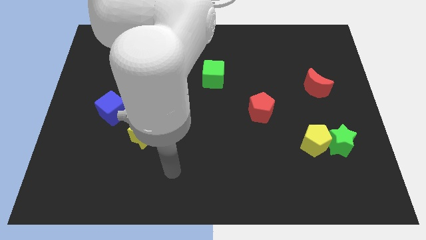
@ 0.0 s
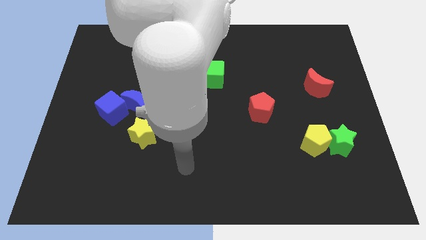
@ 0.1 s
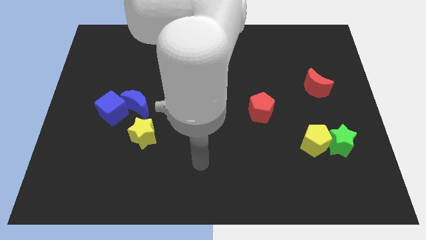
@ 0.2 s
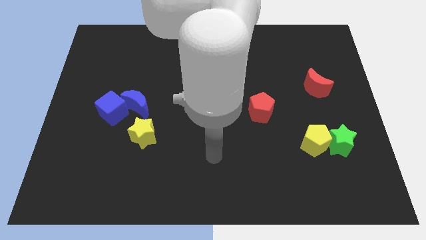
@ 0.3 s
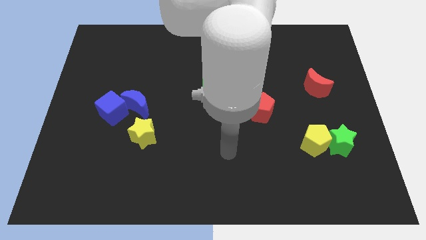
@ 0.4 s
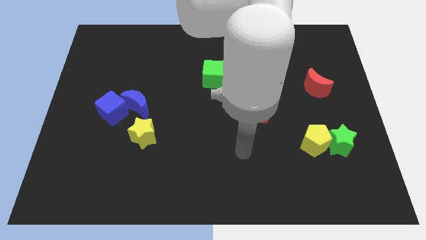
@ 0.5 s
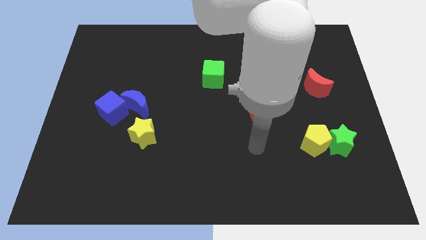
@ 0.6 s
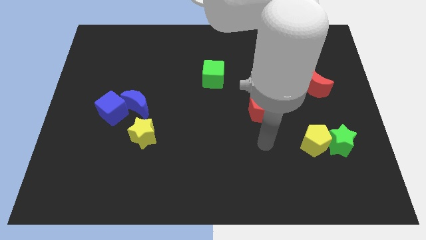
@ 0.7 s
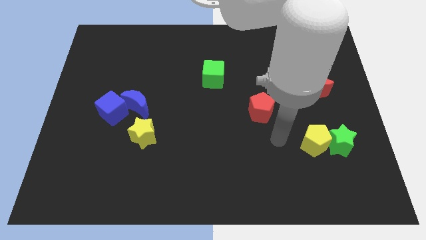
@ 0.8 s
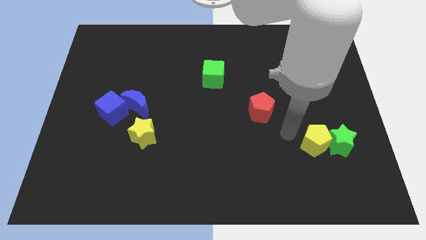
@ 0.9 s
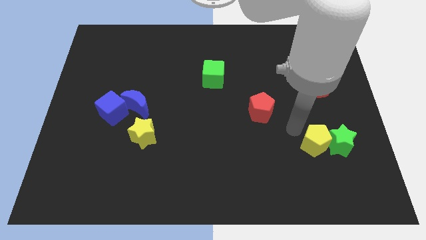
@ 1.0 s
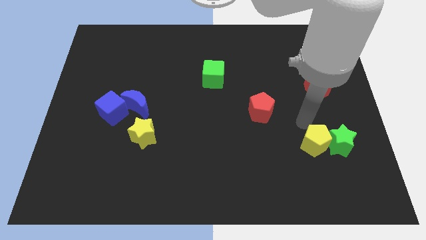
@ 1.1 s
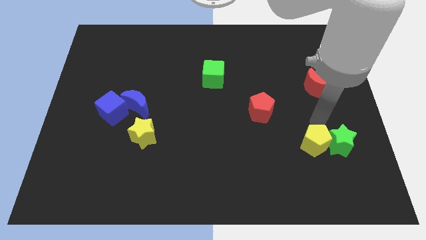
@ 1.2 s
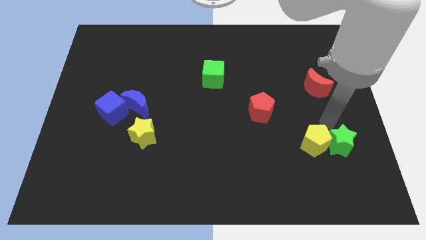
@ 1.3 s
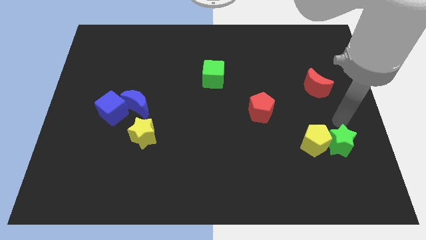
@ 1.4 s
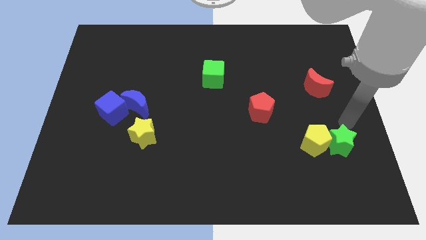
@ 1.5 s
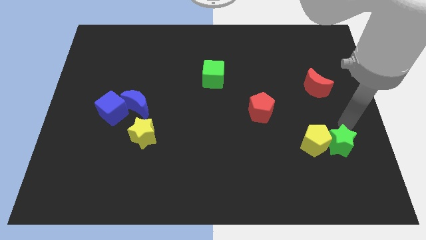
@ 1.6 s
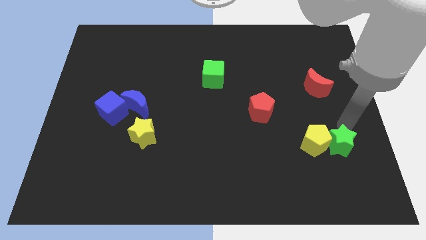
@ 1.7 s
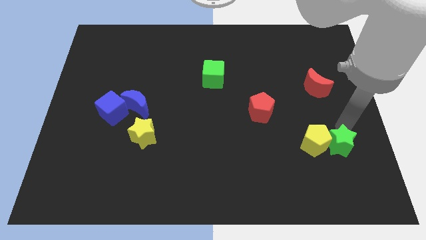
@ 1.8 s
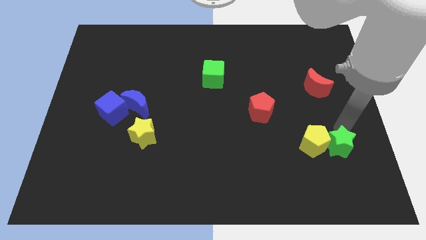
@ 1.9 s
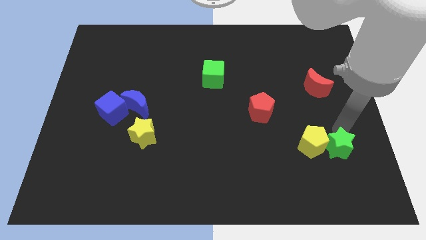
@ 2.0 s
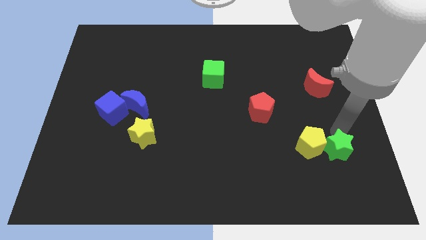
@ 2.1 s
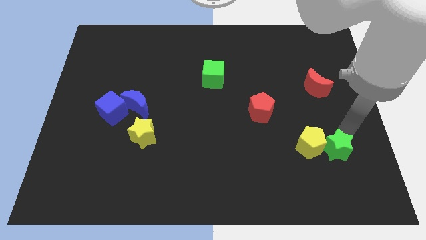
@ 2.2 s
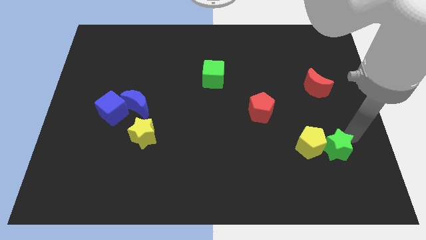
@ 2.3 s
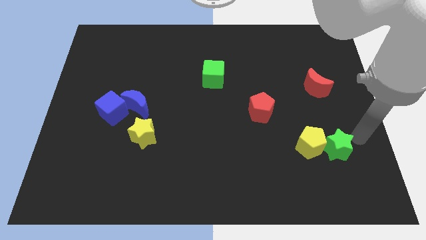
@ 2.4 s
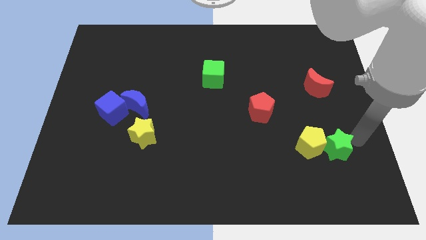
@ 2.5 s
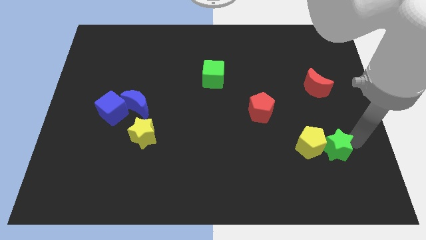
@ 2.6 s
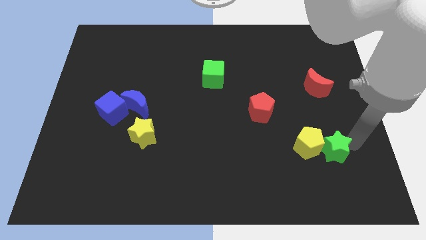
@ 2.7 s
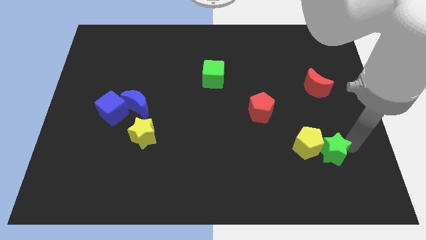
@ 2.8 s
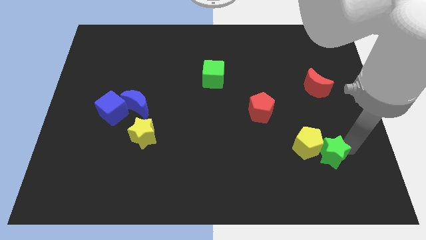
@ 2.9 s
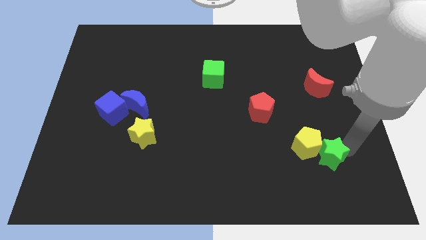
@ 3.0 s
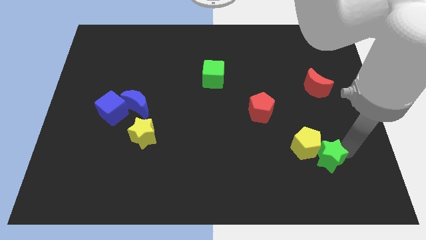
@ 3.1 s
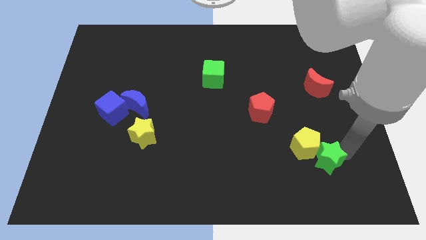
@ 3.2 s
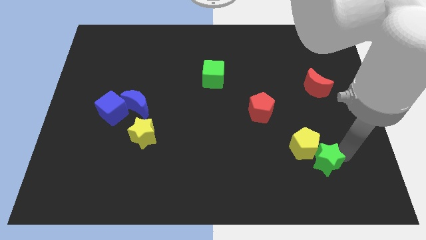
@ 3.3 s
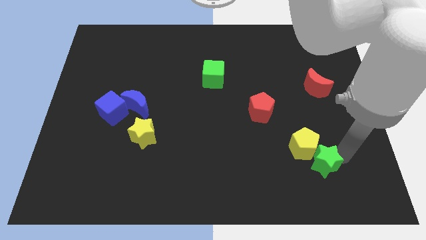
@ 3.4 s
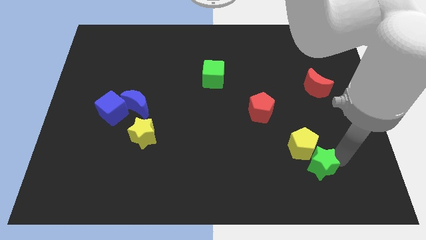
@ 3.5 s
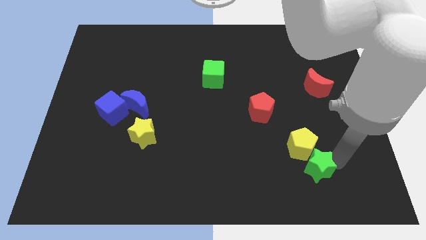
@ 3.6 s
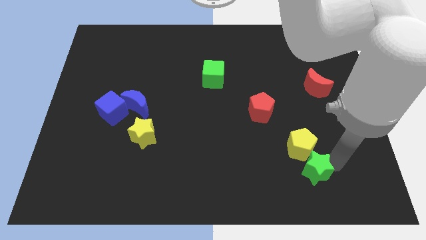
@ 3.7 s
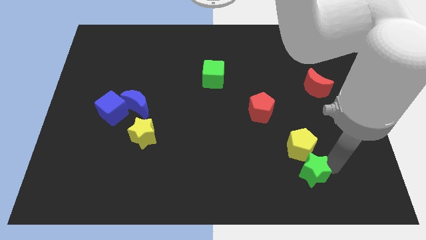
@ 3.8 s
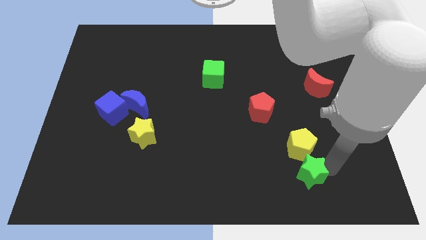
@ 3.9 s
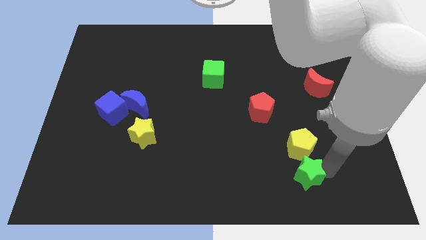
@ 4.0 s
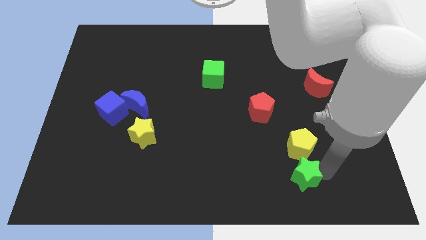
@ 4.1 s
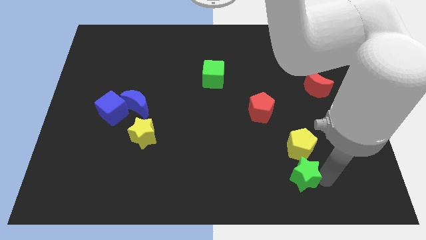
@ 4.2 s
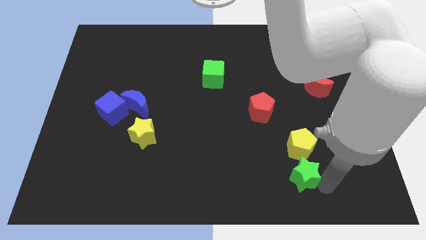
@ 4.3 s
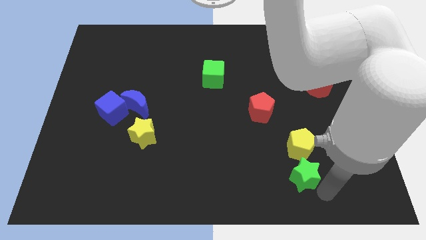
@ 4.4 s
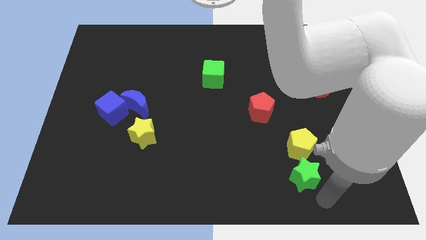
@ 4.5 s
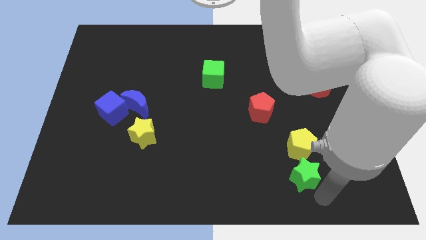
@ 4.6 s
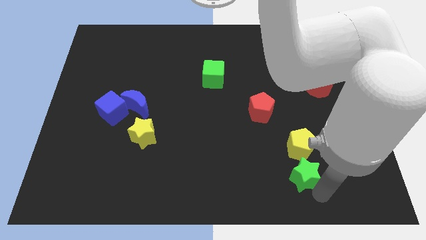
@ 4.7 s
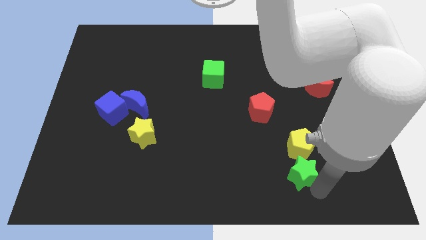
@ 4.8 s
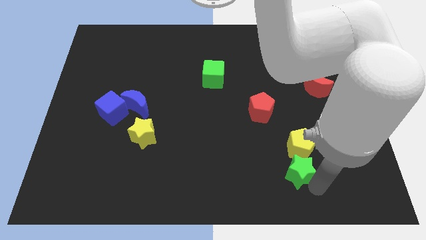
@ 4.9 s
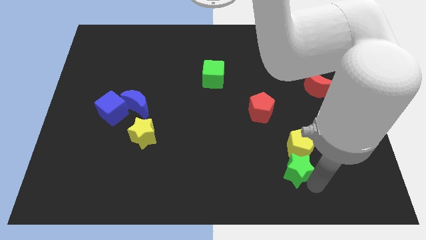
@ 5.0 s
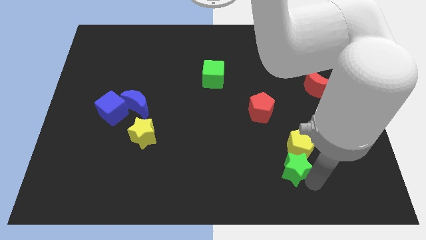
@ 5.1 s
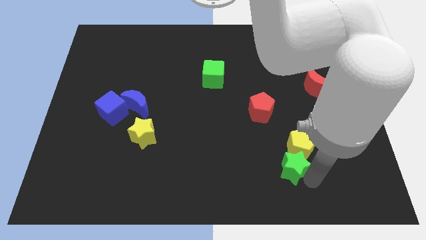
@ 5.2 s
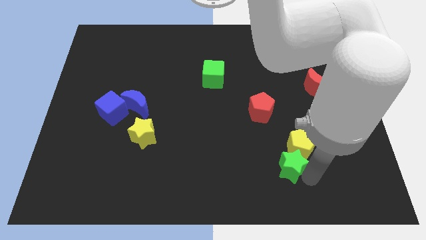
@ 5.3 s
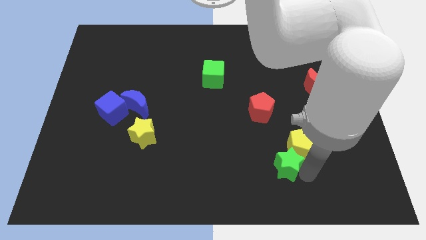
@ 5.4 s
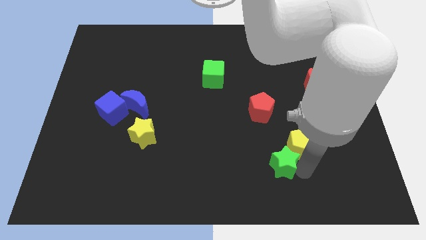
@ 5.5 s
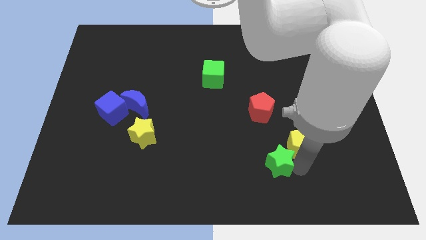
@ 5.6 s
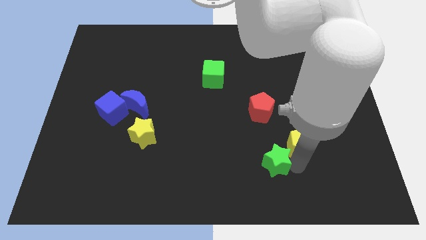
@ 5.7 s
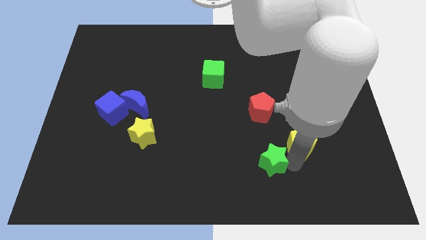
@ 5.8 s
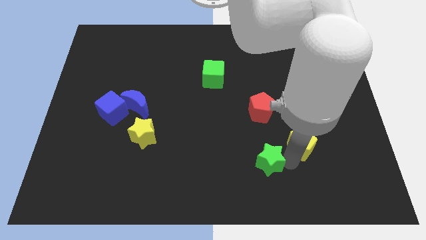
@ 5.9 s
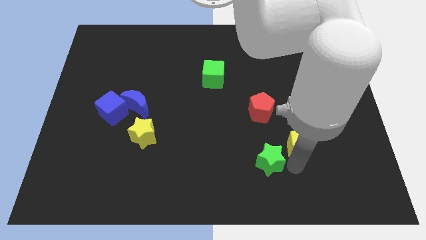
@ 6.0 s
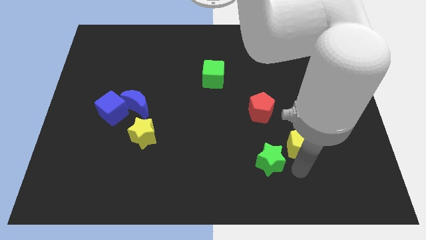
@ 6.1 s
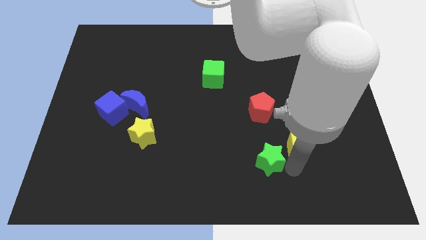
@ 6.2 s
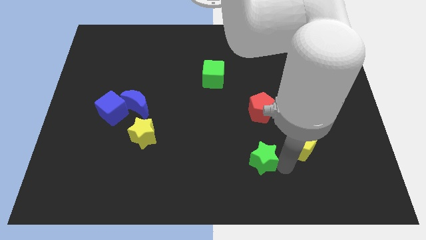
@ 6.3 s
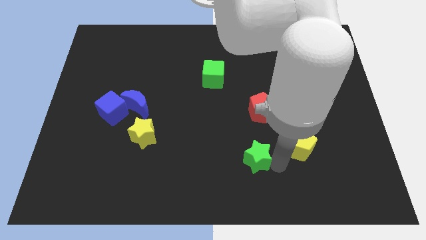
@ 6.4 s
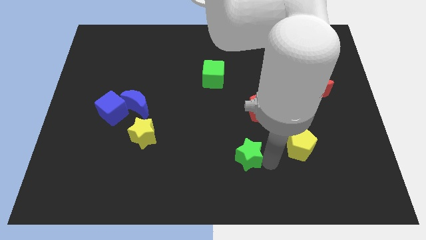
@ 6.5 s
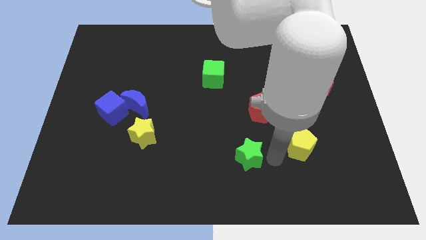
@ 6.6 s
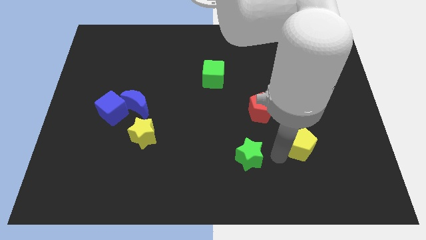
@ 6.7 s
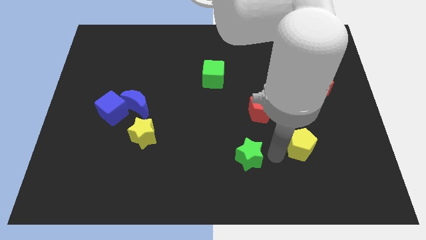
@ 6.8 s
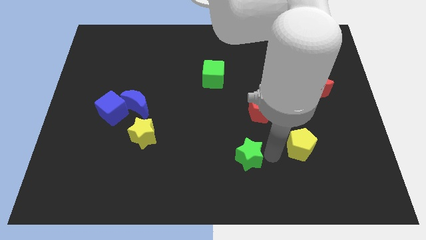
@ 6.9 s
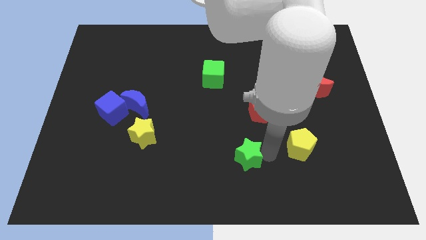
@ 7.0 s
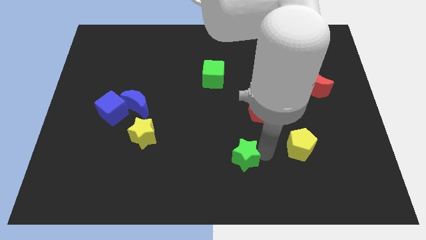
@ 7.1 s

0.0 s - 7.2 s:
push the green star left

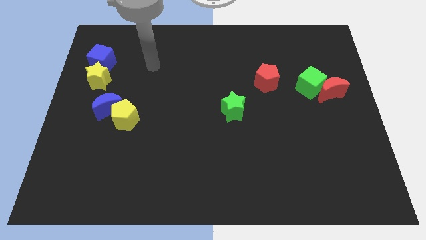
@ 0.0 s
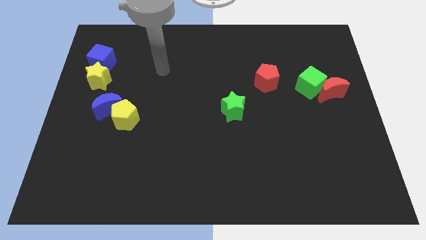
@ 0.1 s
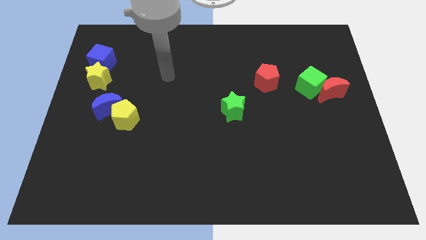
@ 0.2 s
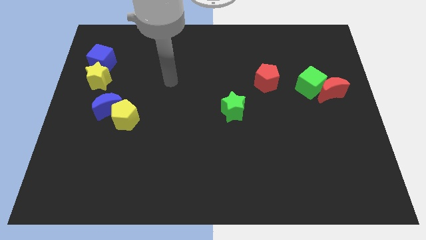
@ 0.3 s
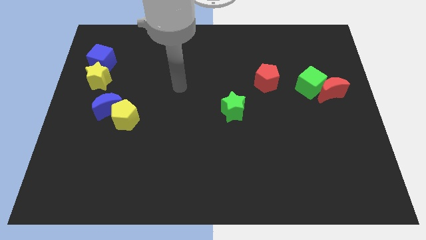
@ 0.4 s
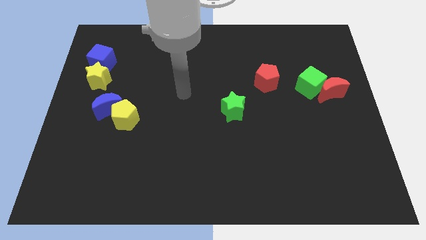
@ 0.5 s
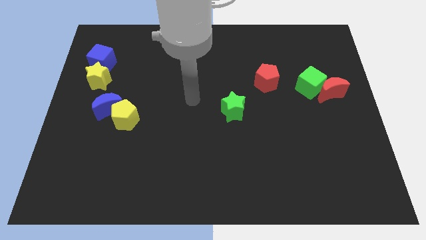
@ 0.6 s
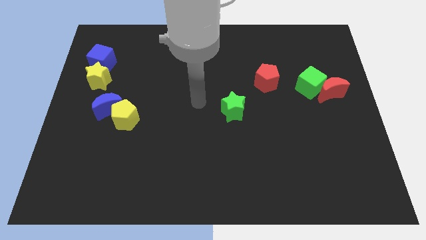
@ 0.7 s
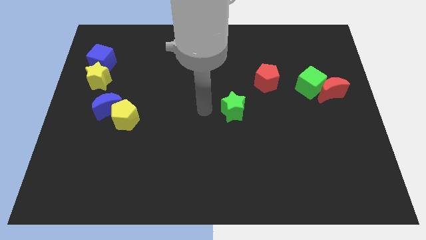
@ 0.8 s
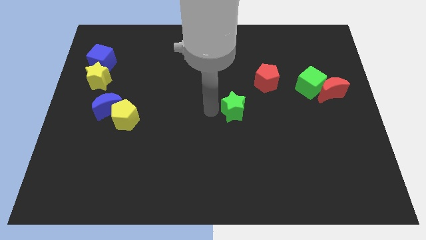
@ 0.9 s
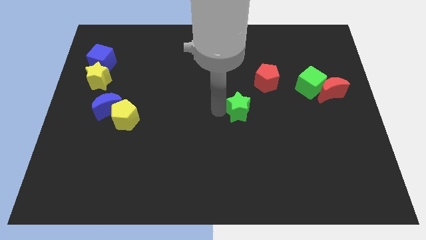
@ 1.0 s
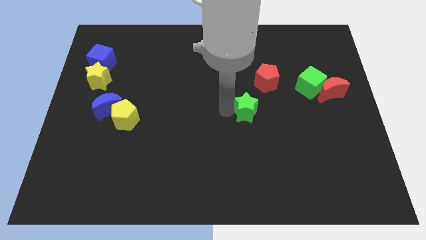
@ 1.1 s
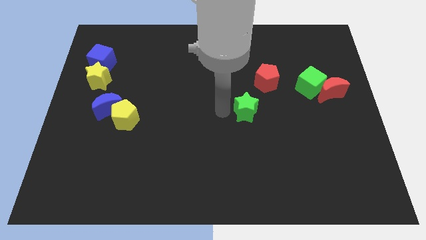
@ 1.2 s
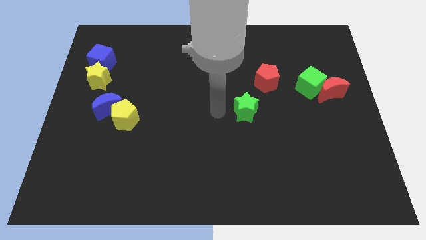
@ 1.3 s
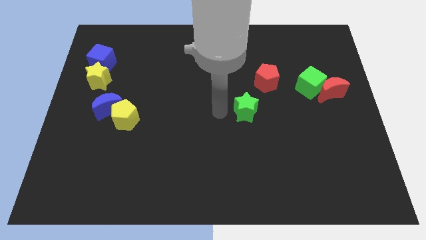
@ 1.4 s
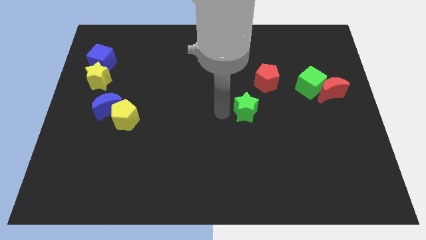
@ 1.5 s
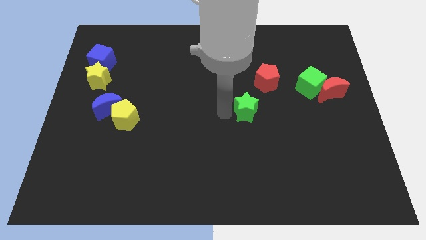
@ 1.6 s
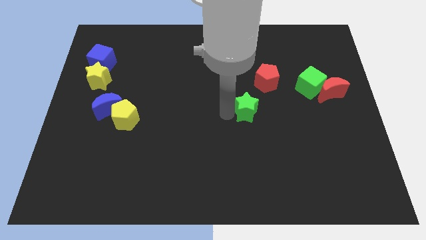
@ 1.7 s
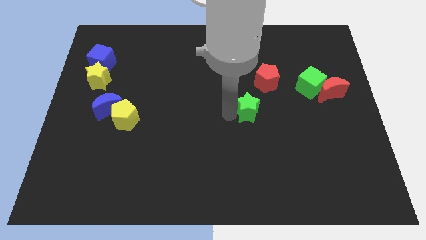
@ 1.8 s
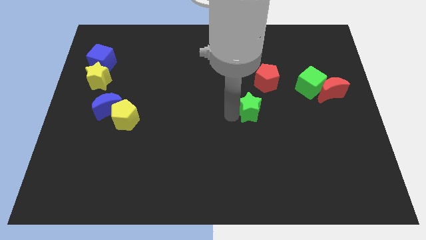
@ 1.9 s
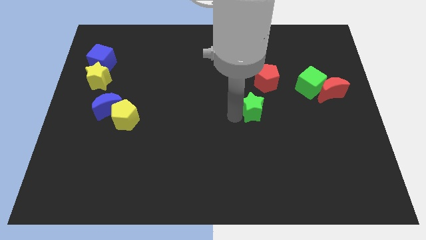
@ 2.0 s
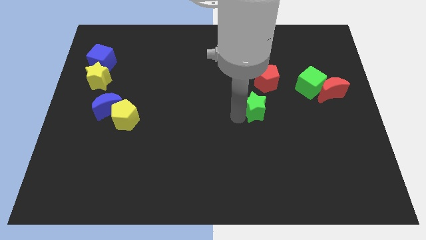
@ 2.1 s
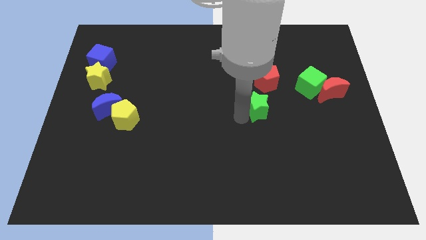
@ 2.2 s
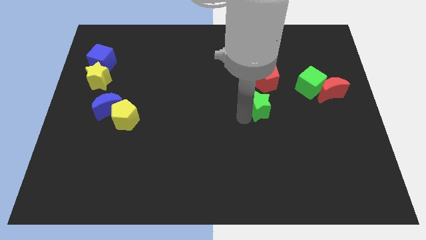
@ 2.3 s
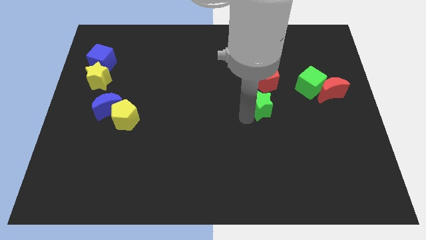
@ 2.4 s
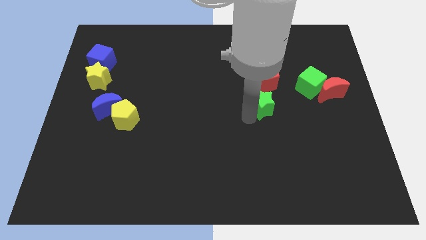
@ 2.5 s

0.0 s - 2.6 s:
slide the green star to the right a bit
